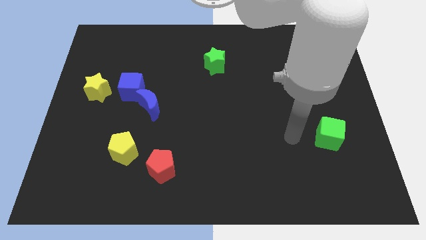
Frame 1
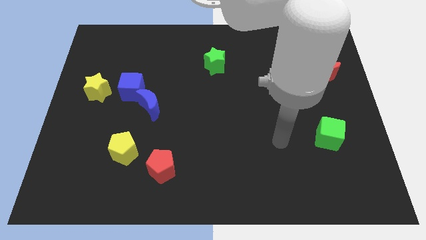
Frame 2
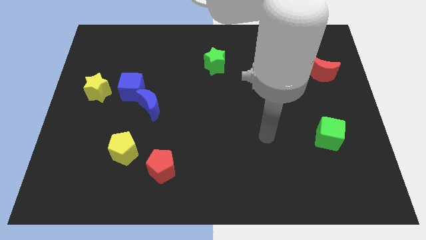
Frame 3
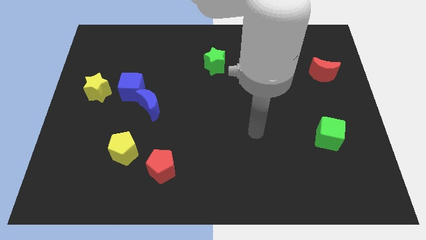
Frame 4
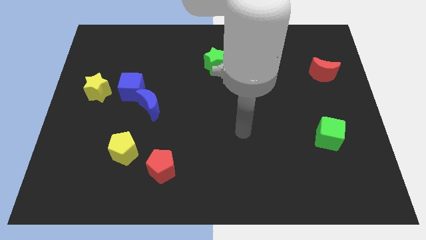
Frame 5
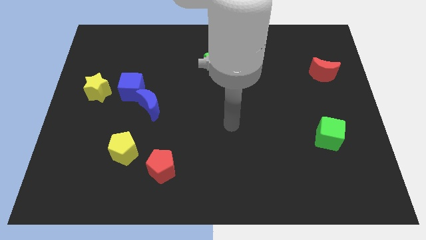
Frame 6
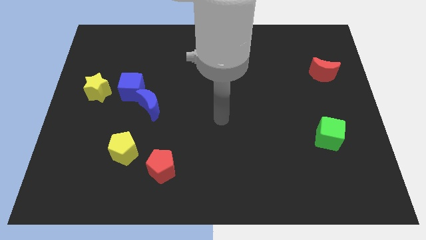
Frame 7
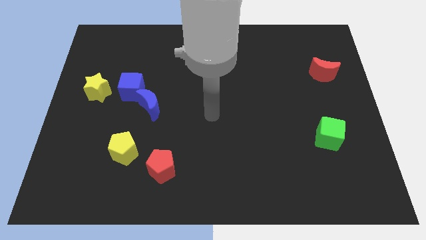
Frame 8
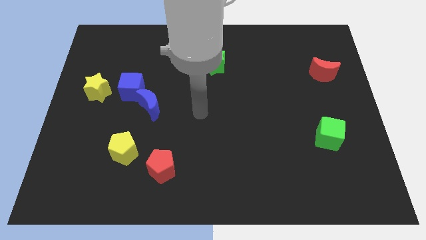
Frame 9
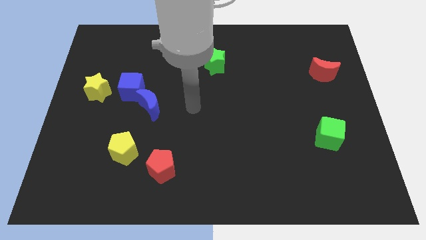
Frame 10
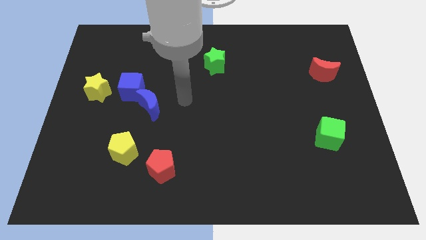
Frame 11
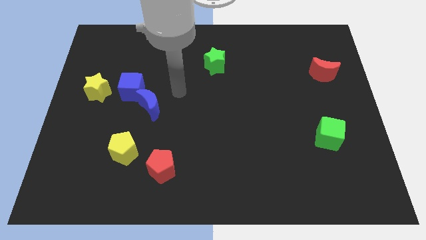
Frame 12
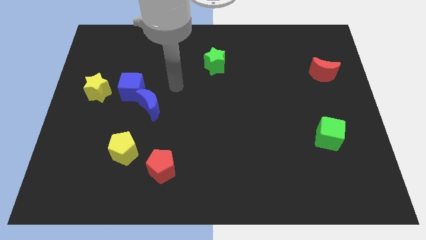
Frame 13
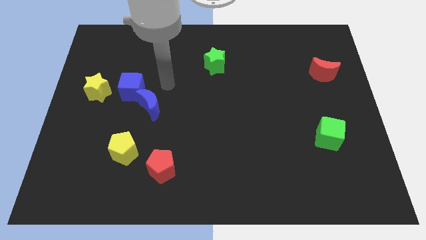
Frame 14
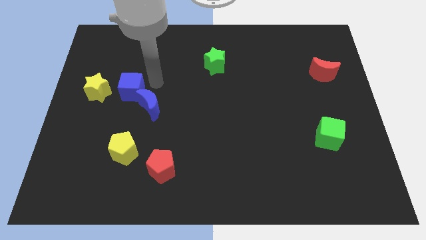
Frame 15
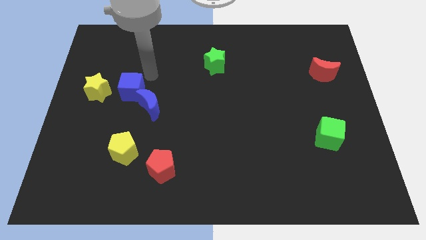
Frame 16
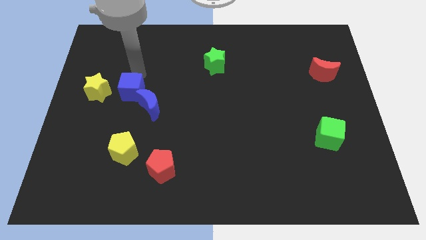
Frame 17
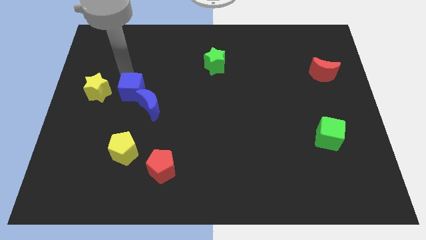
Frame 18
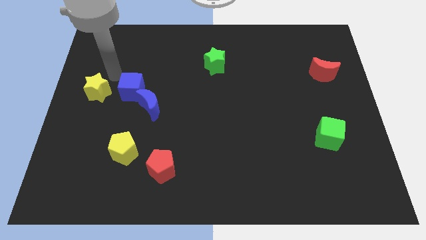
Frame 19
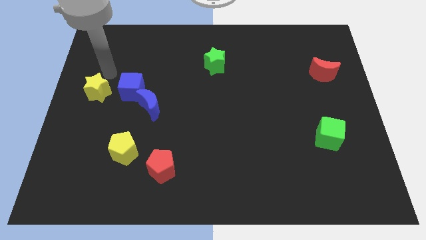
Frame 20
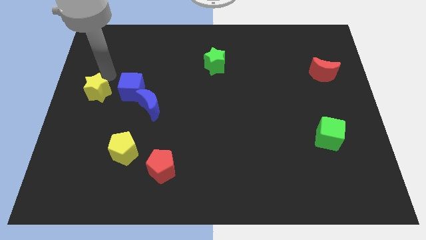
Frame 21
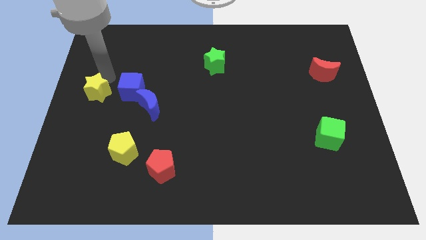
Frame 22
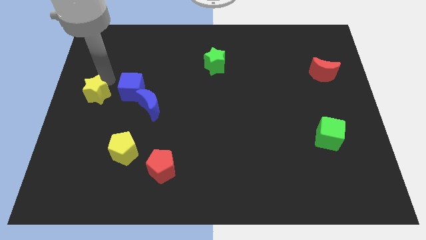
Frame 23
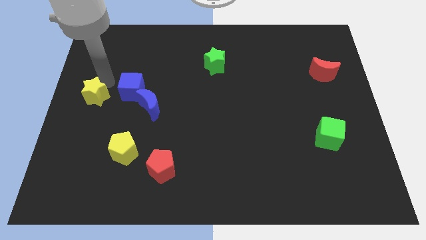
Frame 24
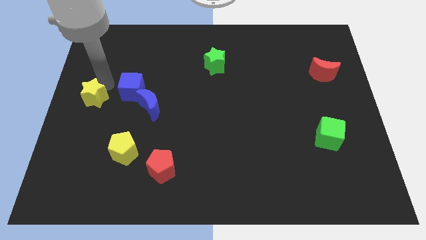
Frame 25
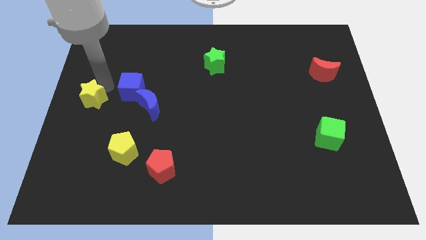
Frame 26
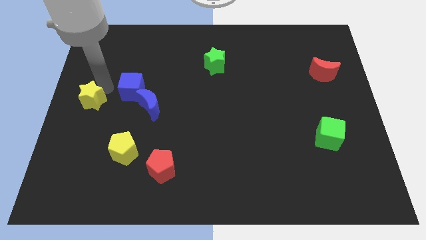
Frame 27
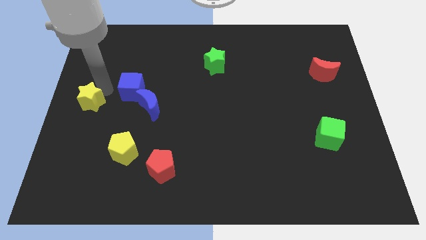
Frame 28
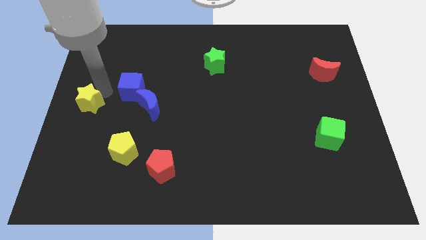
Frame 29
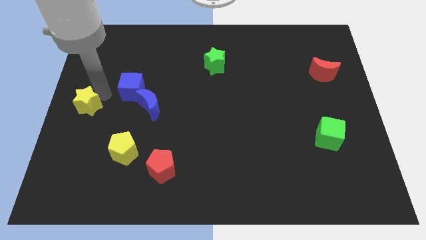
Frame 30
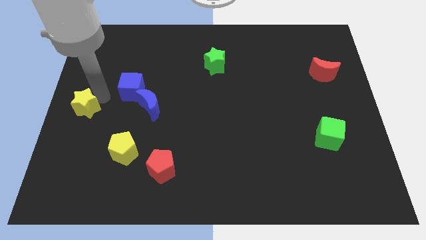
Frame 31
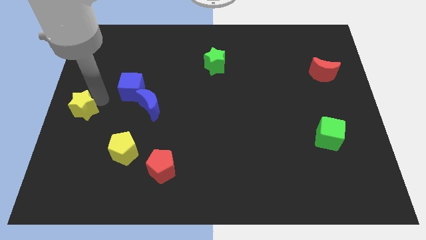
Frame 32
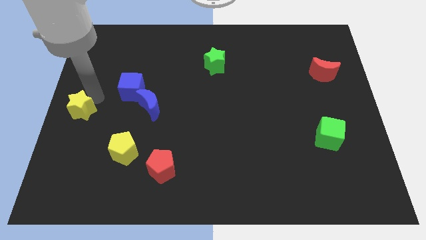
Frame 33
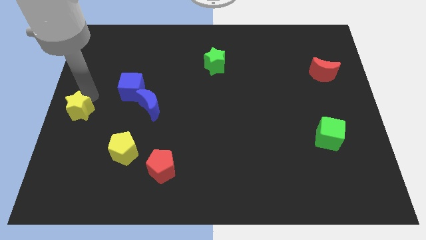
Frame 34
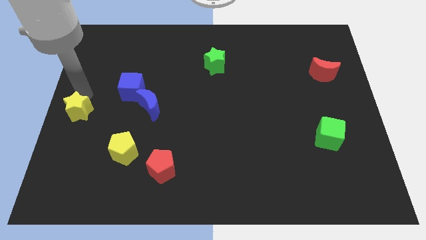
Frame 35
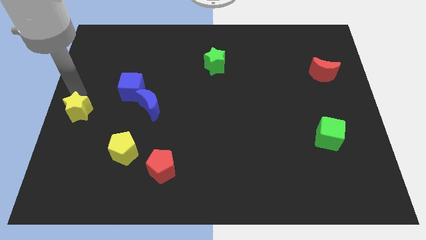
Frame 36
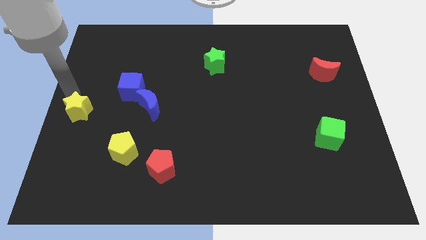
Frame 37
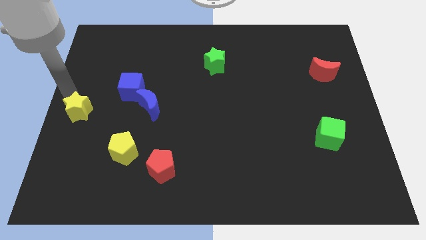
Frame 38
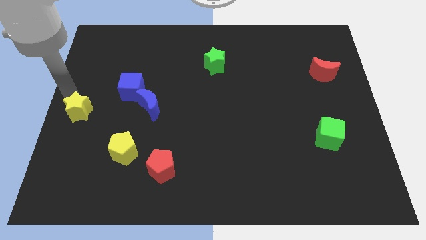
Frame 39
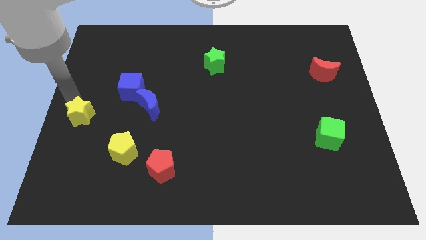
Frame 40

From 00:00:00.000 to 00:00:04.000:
push the yellow star down a little bit

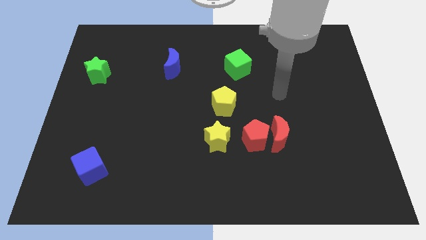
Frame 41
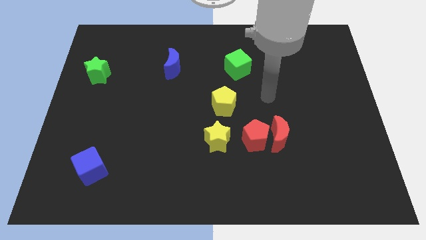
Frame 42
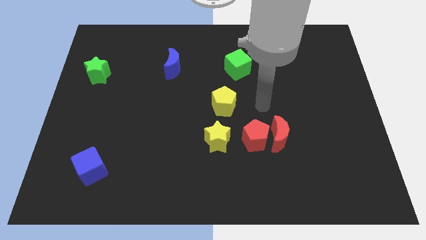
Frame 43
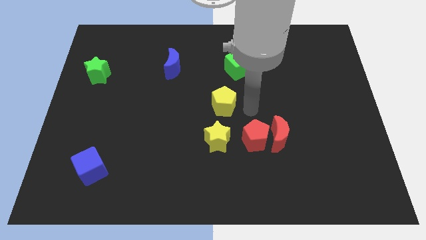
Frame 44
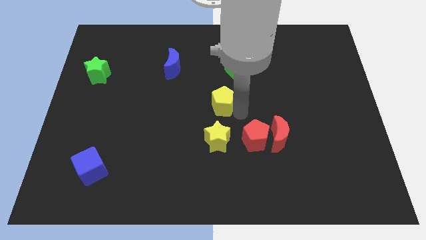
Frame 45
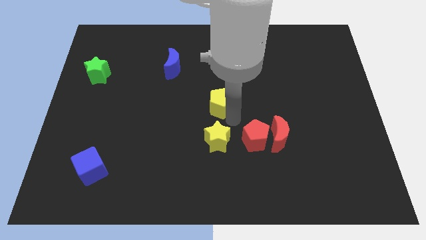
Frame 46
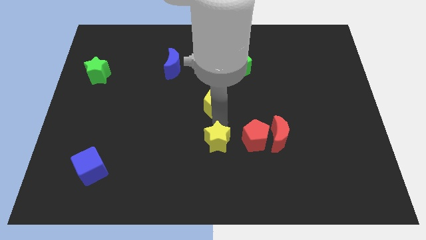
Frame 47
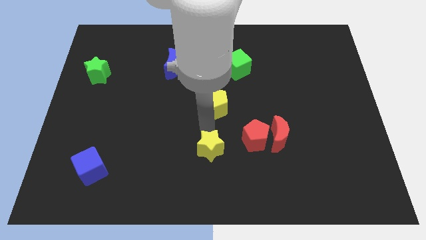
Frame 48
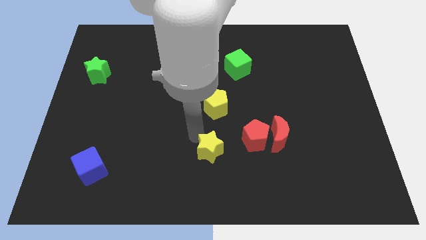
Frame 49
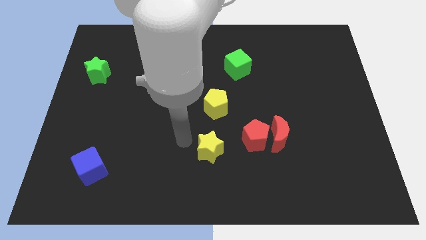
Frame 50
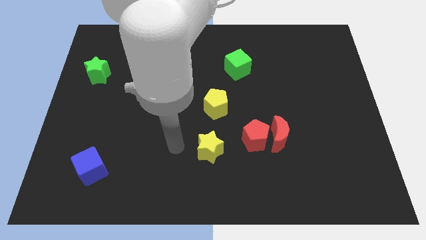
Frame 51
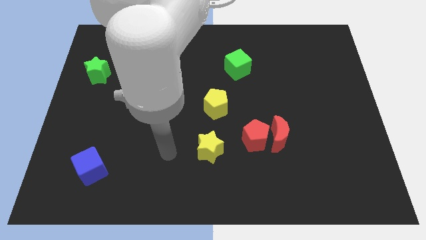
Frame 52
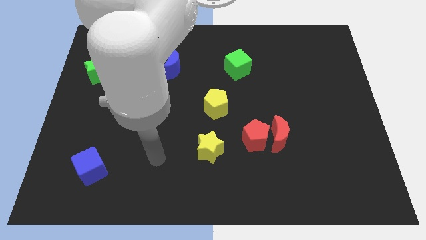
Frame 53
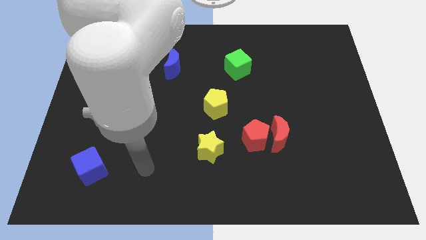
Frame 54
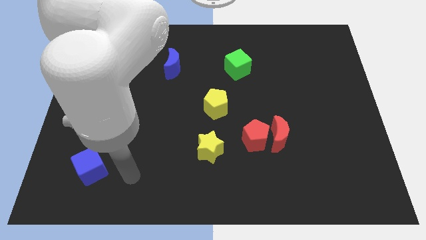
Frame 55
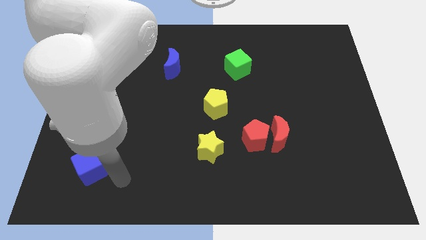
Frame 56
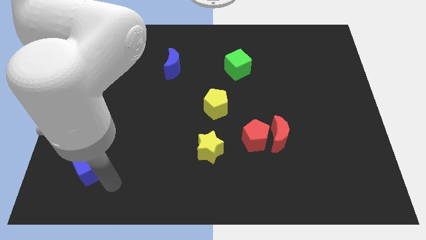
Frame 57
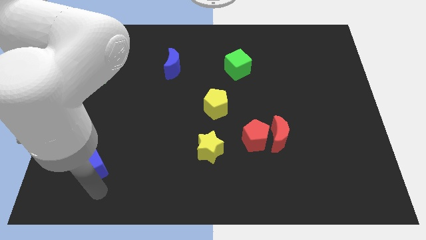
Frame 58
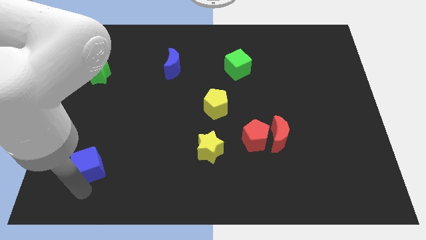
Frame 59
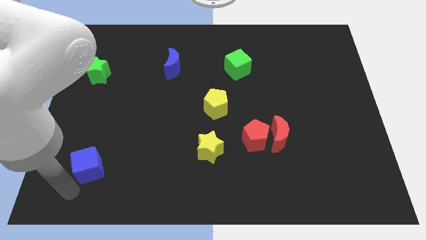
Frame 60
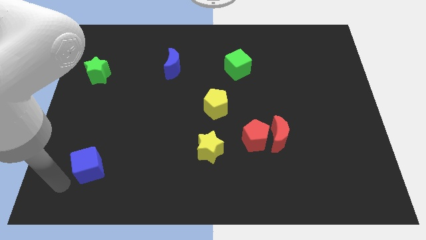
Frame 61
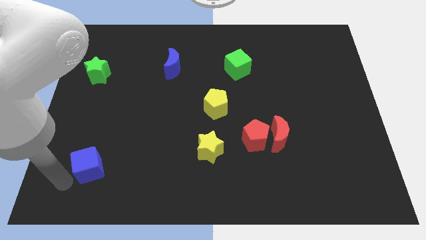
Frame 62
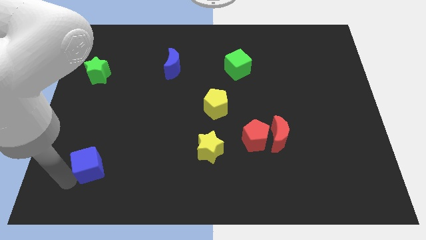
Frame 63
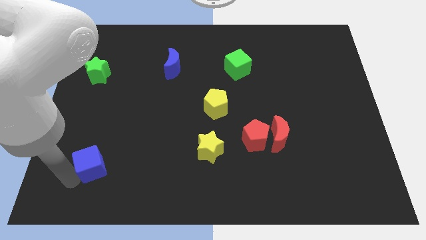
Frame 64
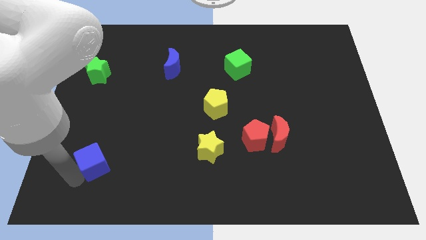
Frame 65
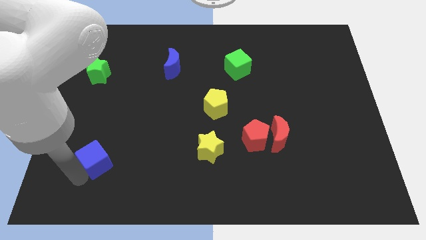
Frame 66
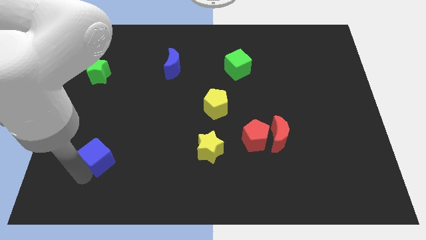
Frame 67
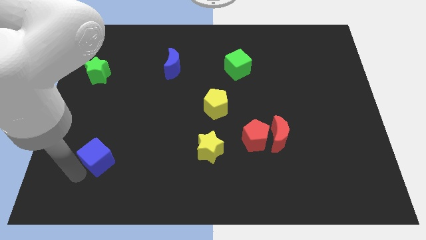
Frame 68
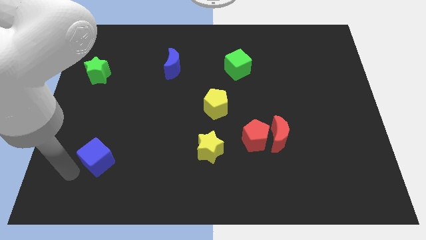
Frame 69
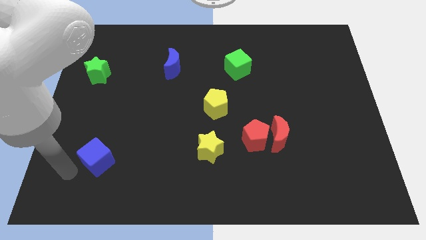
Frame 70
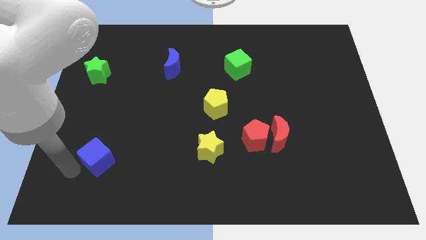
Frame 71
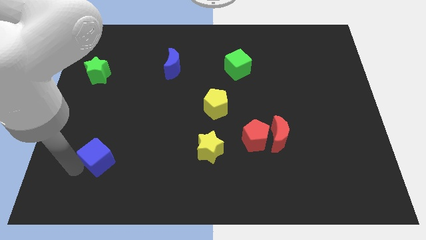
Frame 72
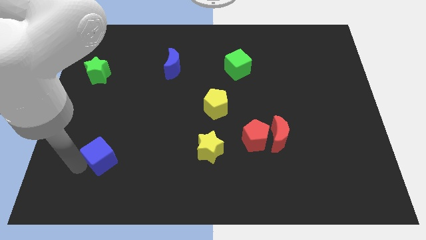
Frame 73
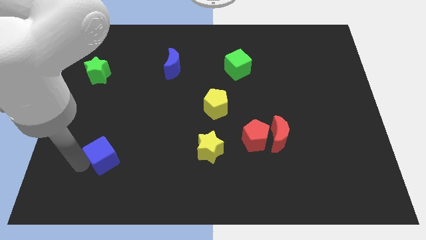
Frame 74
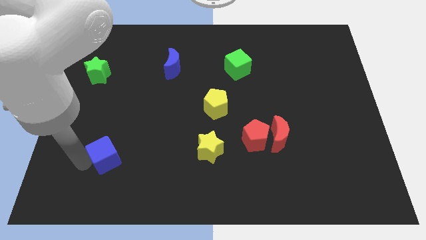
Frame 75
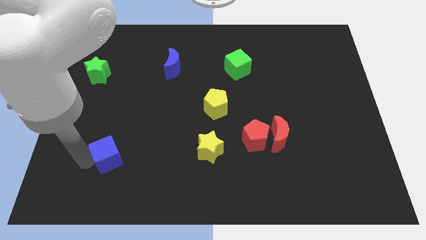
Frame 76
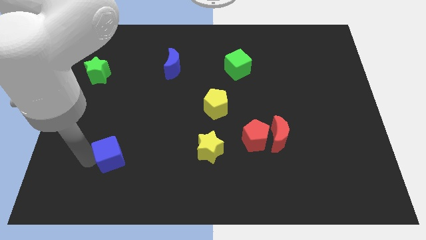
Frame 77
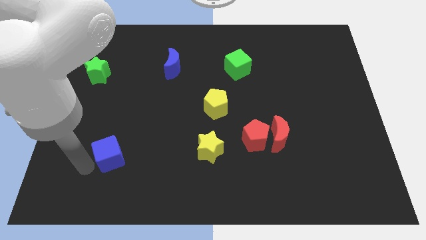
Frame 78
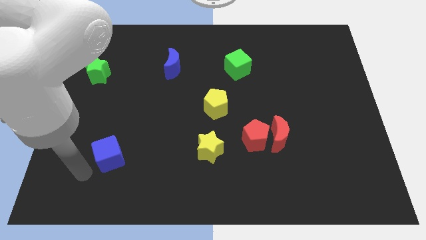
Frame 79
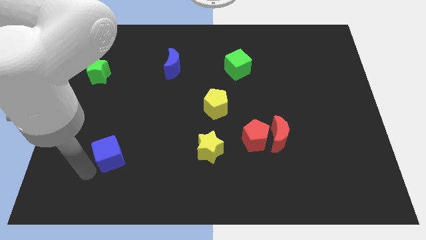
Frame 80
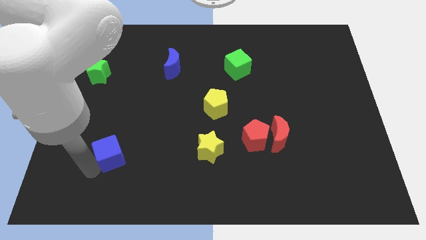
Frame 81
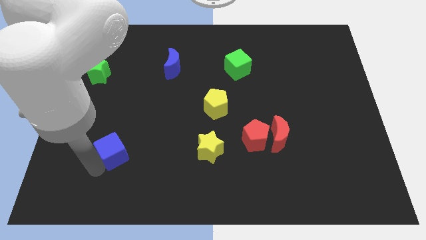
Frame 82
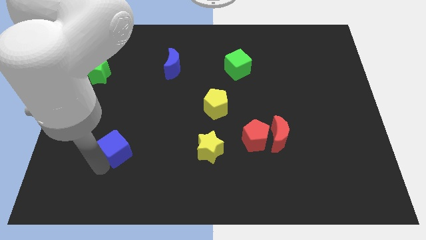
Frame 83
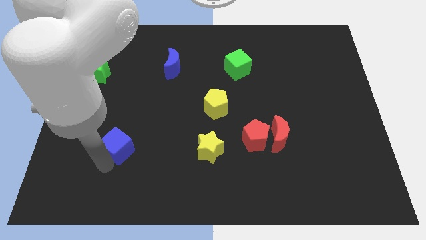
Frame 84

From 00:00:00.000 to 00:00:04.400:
slide the blue cube somewhat upwards and then right

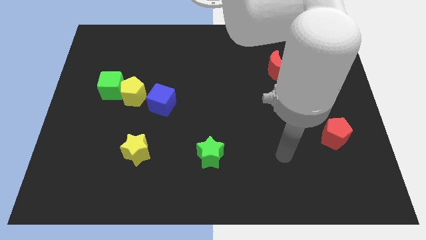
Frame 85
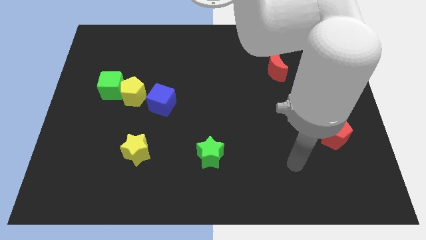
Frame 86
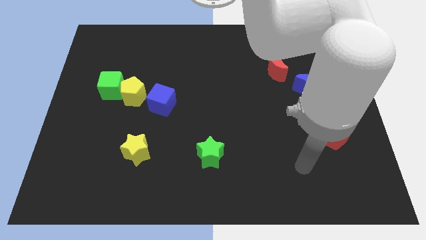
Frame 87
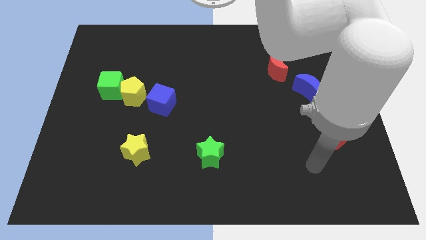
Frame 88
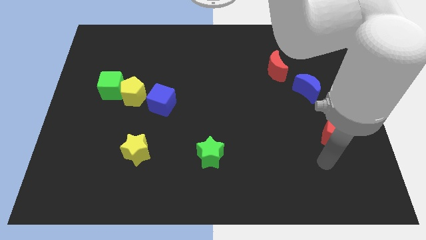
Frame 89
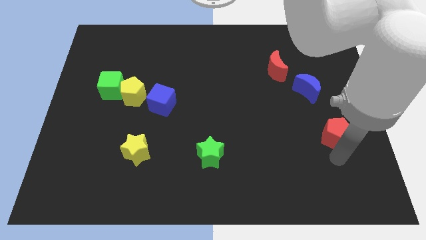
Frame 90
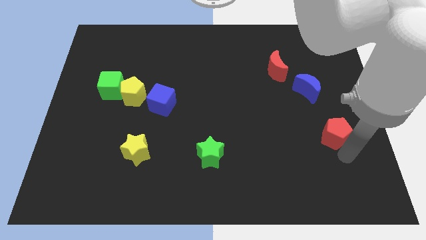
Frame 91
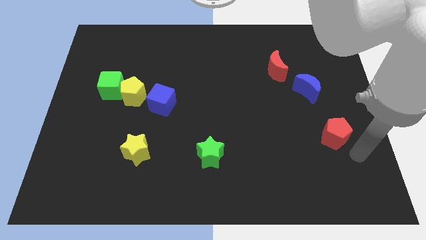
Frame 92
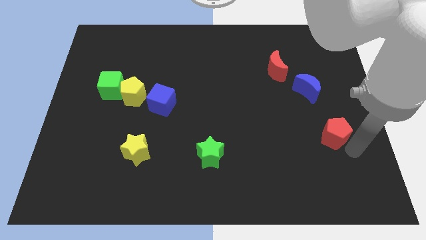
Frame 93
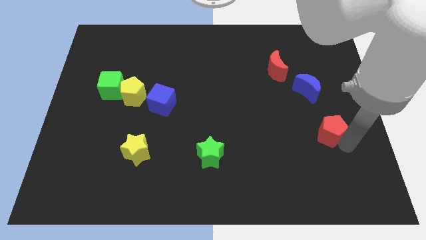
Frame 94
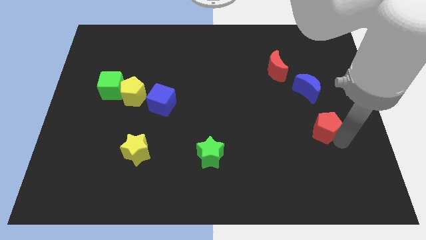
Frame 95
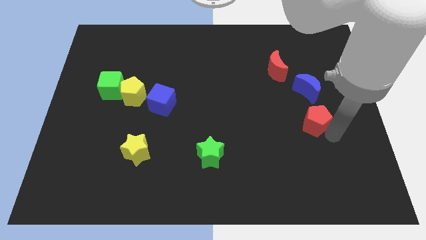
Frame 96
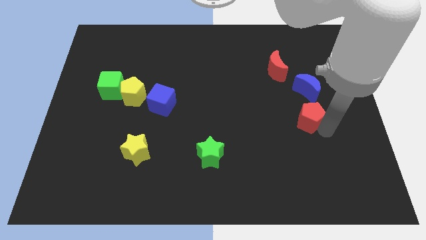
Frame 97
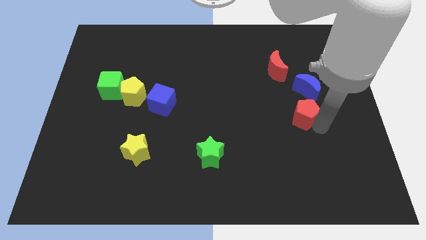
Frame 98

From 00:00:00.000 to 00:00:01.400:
slightly slide the red pentagon up and left diagonally
